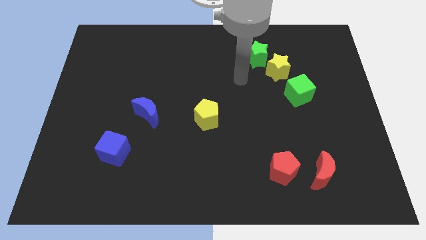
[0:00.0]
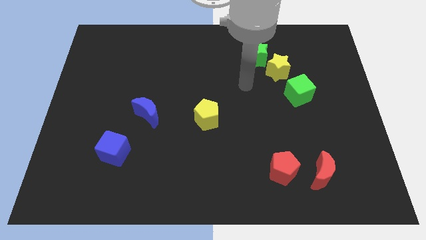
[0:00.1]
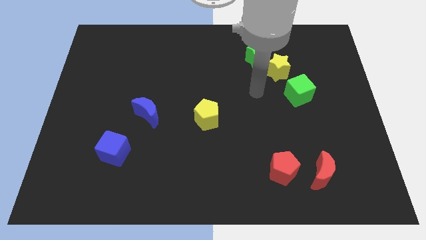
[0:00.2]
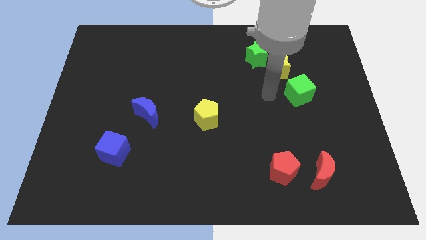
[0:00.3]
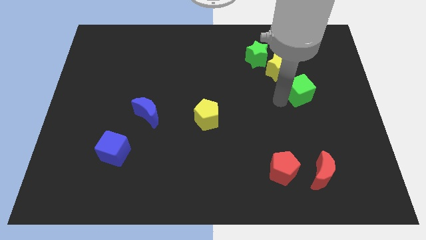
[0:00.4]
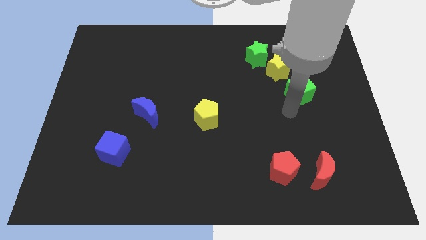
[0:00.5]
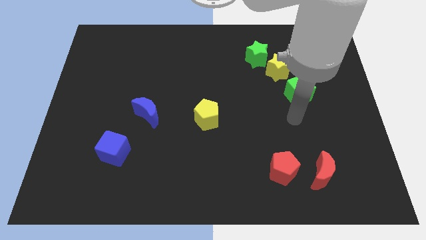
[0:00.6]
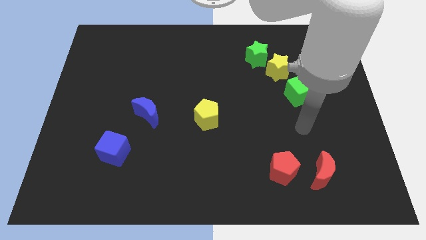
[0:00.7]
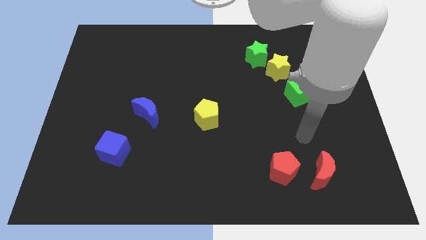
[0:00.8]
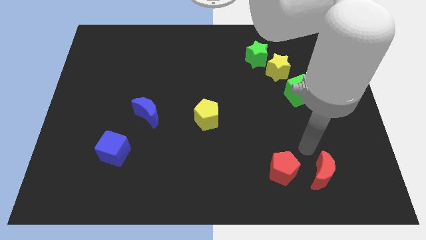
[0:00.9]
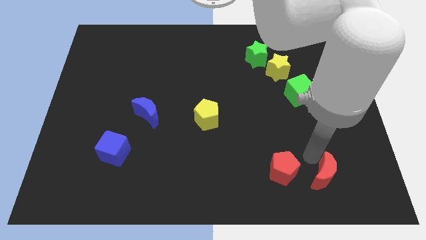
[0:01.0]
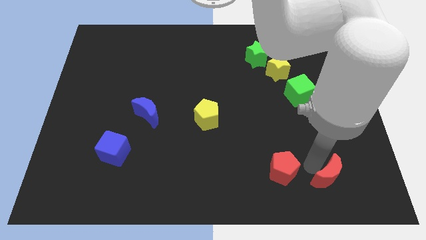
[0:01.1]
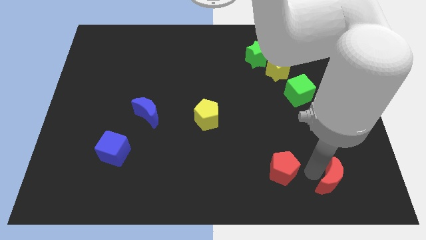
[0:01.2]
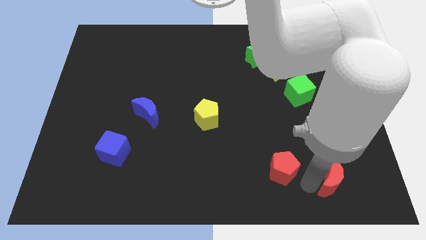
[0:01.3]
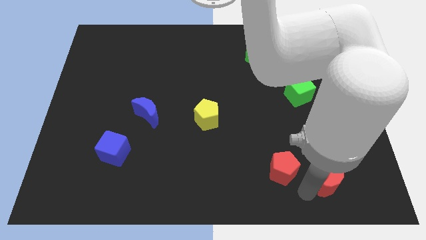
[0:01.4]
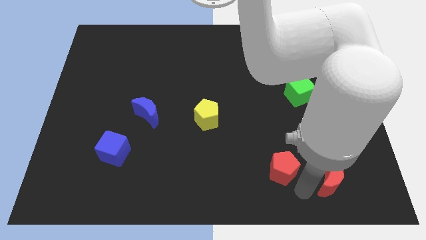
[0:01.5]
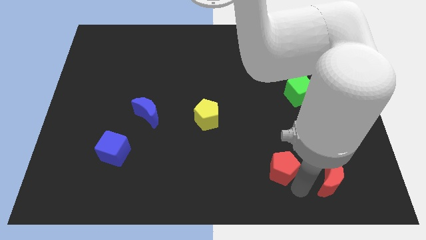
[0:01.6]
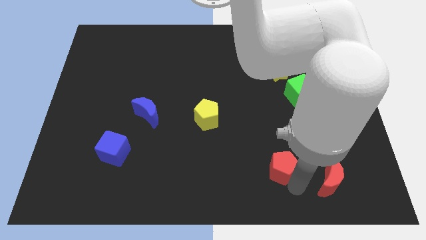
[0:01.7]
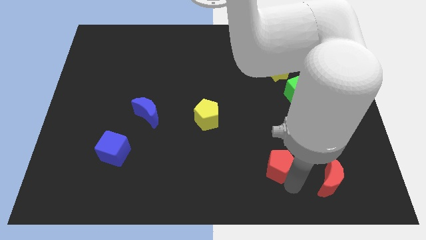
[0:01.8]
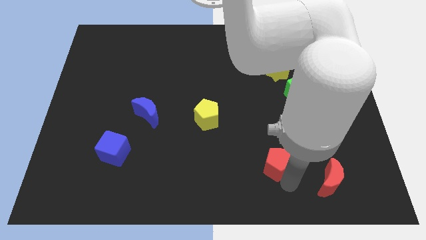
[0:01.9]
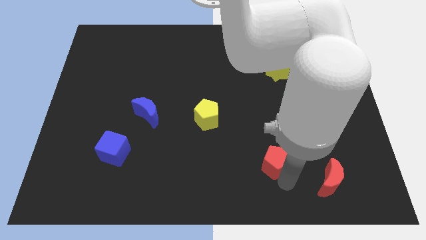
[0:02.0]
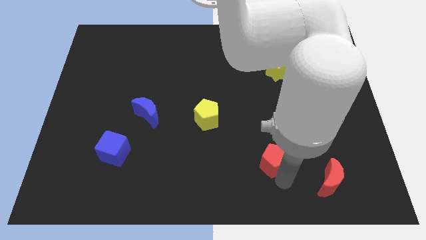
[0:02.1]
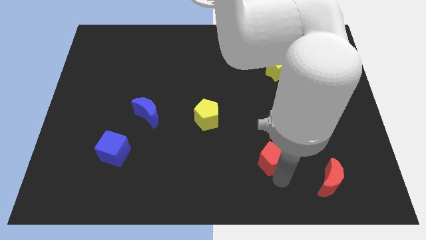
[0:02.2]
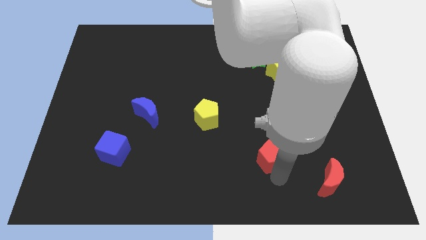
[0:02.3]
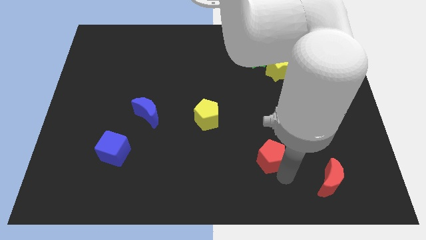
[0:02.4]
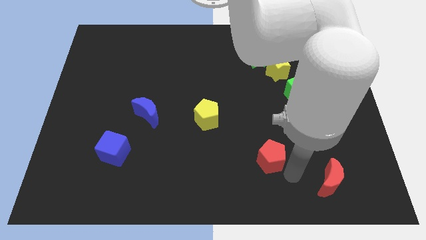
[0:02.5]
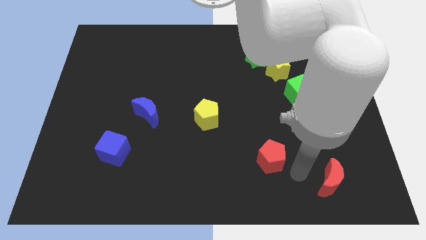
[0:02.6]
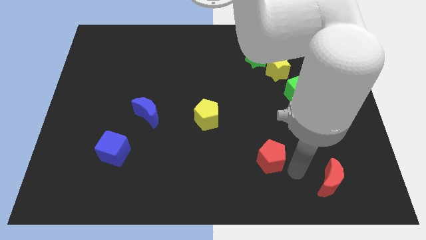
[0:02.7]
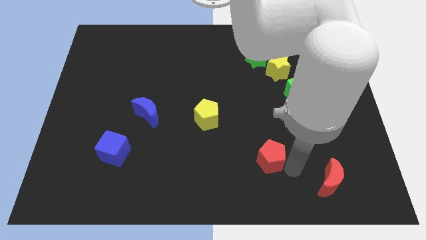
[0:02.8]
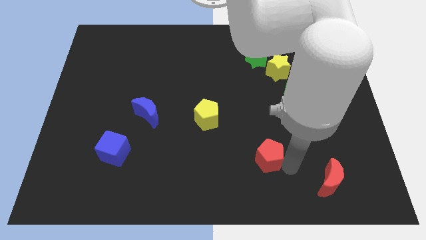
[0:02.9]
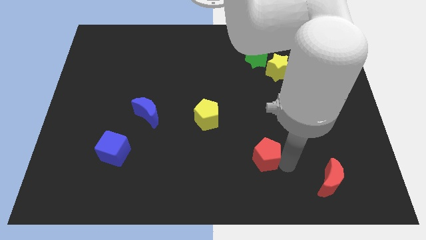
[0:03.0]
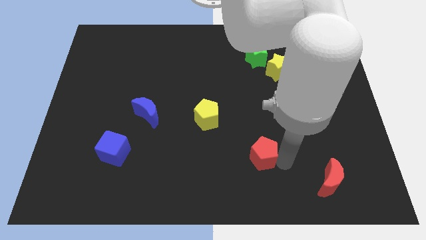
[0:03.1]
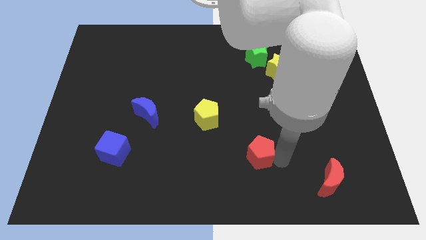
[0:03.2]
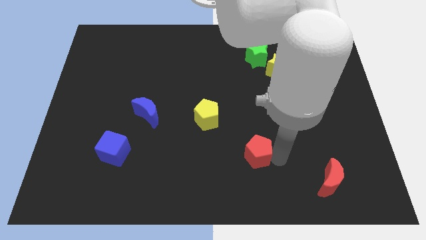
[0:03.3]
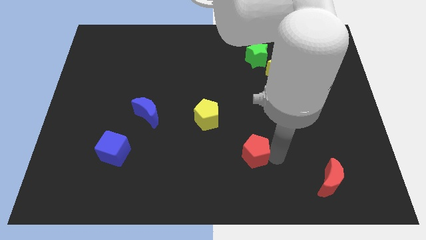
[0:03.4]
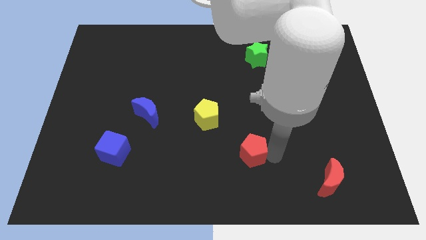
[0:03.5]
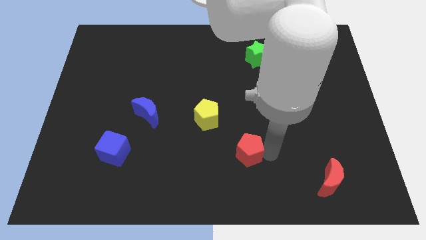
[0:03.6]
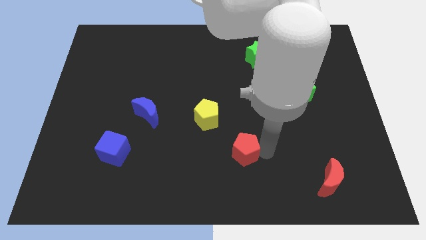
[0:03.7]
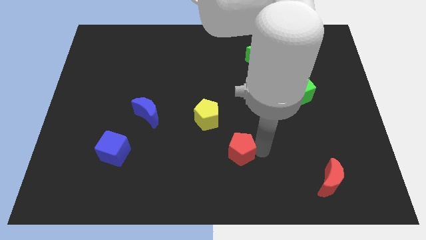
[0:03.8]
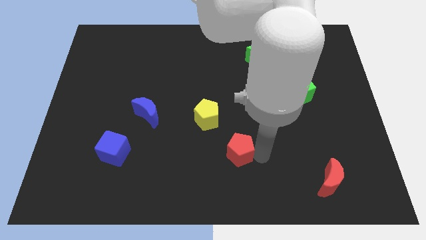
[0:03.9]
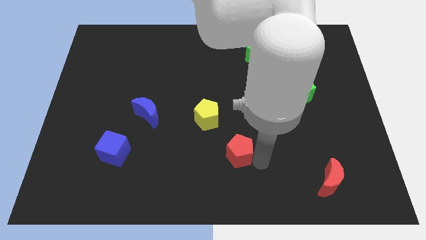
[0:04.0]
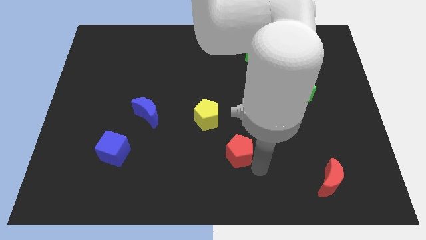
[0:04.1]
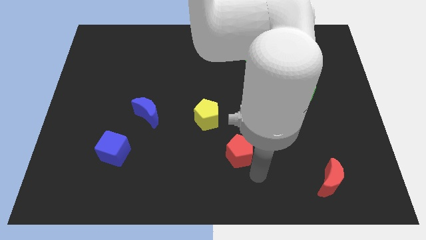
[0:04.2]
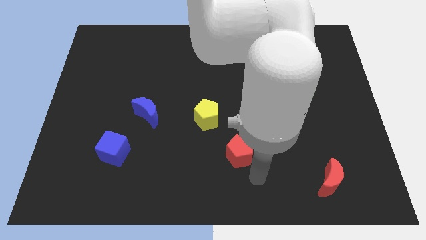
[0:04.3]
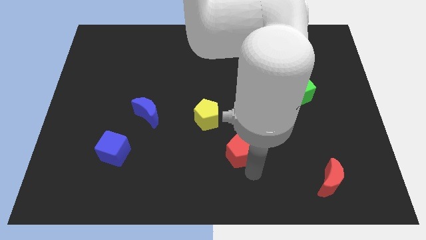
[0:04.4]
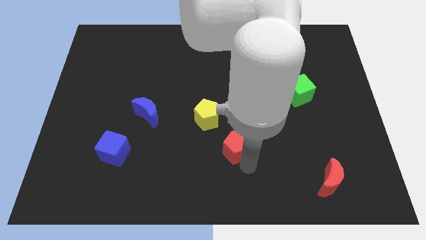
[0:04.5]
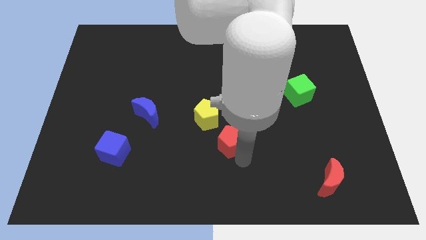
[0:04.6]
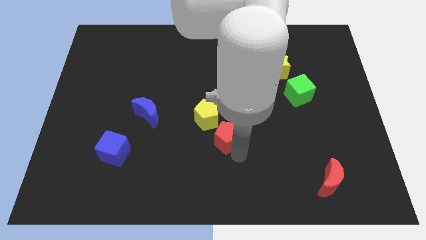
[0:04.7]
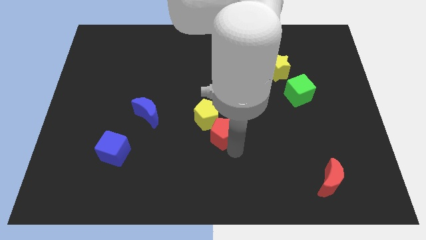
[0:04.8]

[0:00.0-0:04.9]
put the red pentagon close to the yellow pentagon

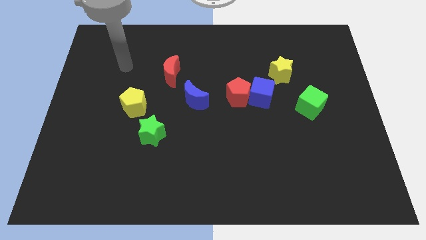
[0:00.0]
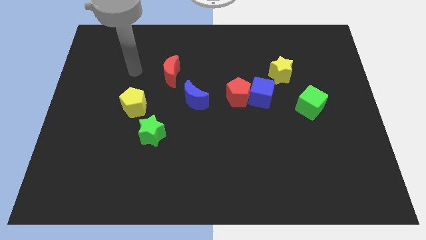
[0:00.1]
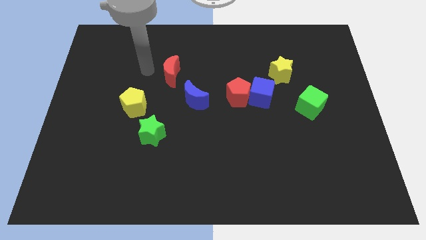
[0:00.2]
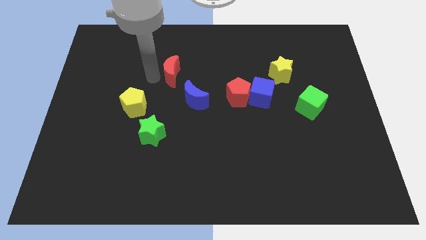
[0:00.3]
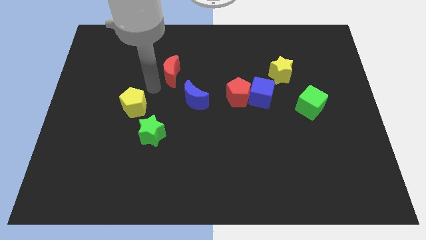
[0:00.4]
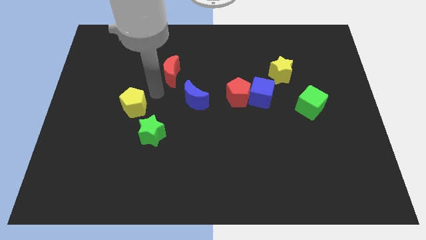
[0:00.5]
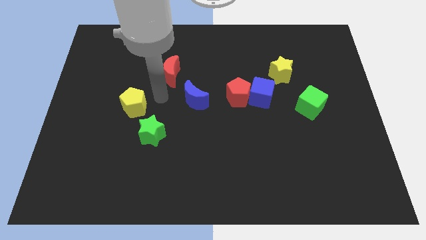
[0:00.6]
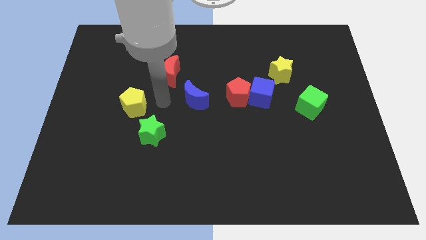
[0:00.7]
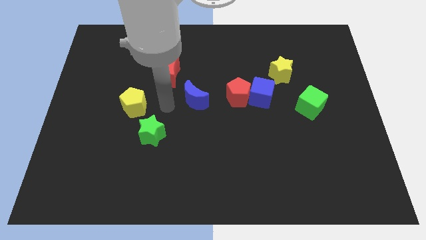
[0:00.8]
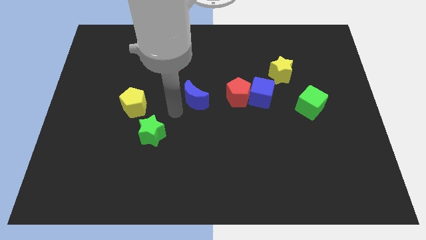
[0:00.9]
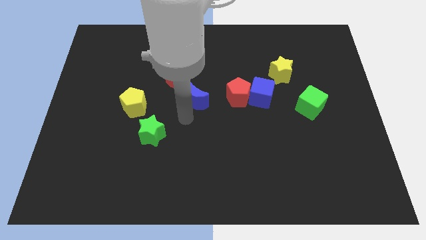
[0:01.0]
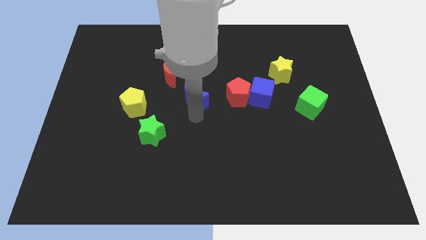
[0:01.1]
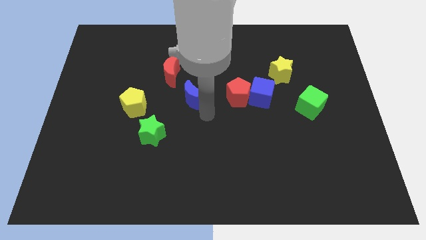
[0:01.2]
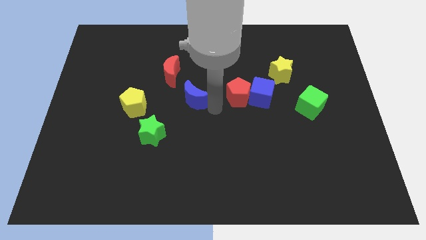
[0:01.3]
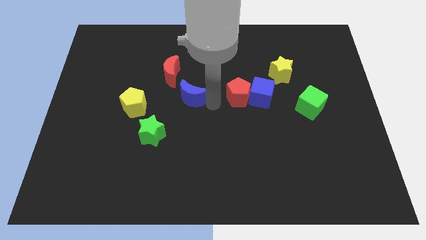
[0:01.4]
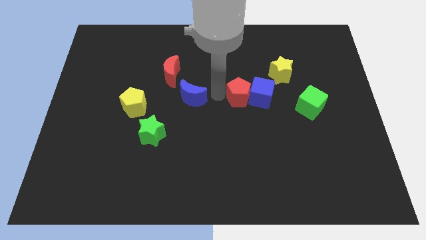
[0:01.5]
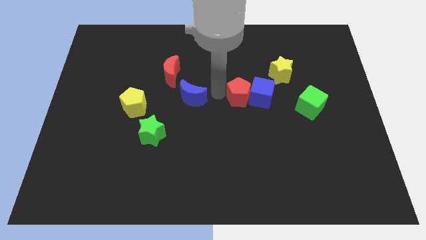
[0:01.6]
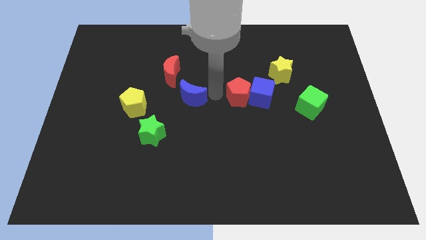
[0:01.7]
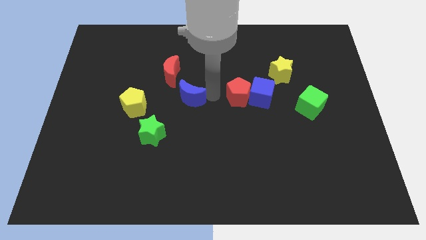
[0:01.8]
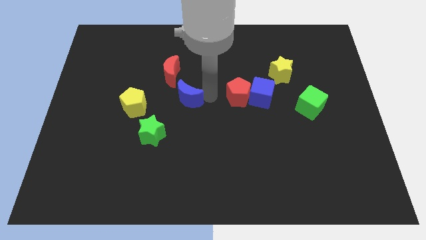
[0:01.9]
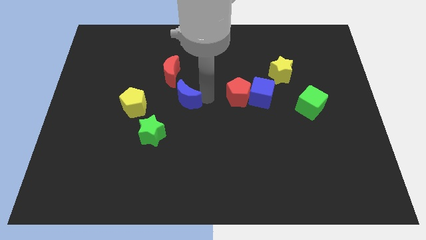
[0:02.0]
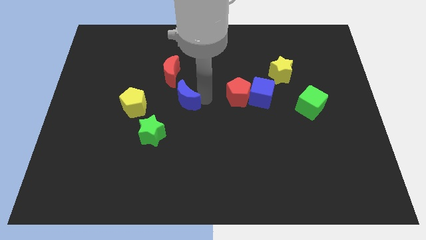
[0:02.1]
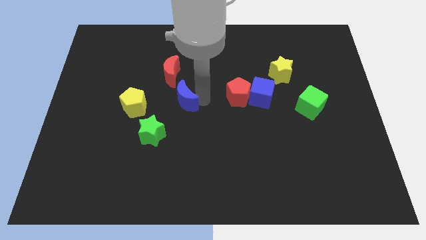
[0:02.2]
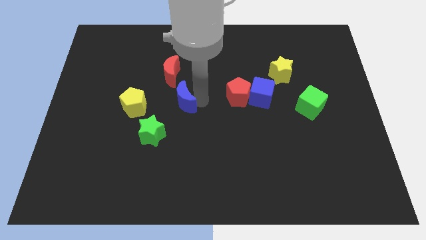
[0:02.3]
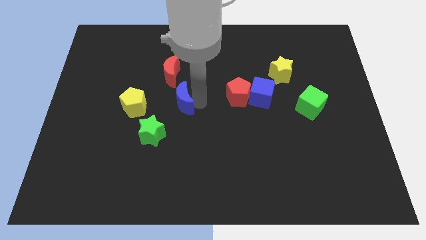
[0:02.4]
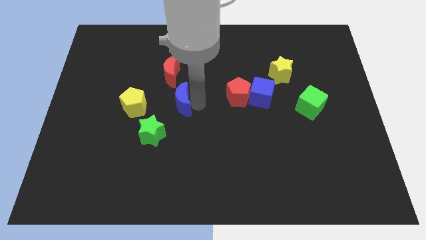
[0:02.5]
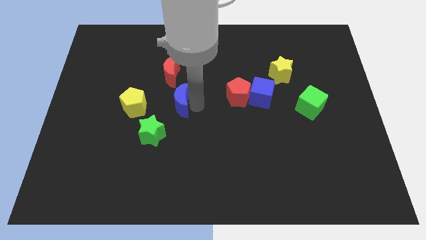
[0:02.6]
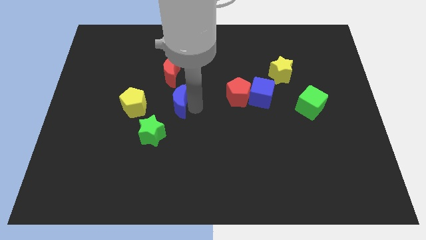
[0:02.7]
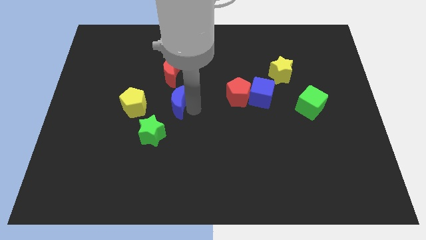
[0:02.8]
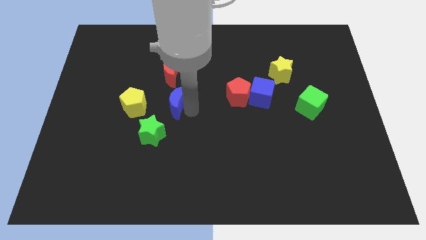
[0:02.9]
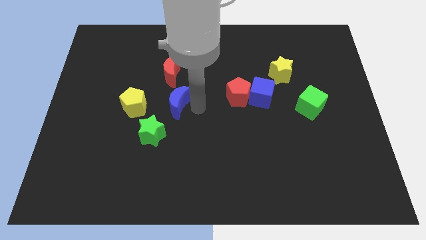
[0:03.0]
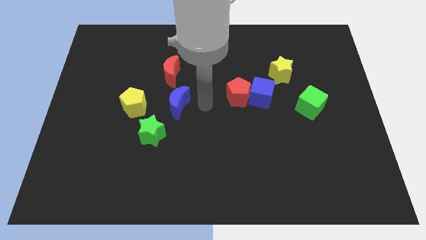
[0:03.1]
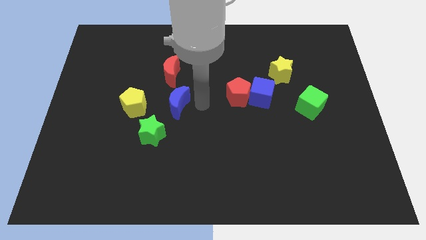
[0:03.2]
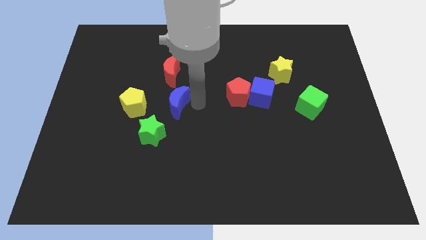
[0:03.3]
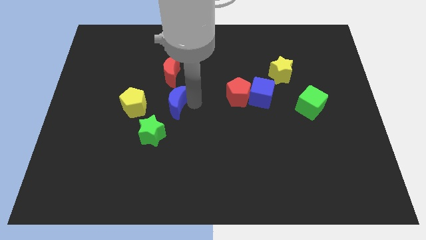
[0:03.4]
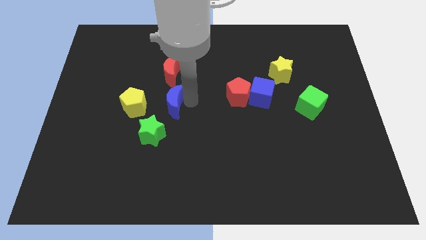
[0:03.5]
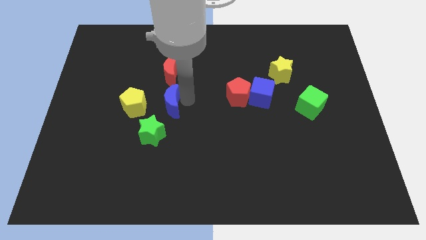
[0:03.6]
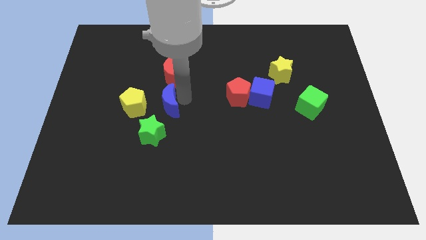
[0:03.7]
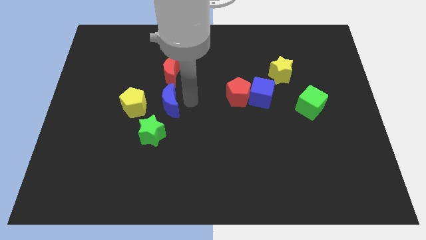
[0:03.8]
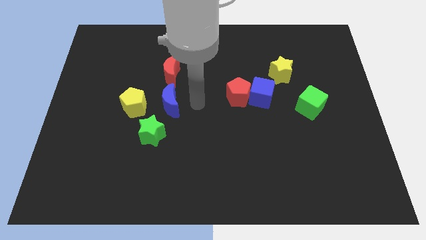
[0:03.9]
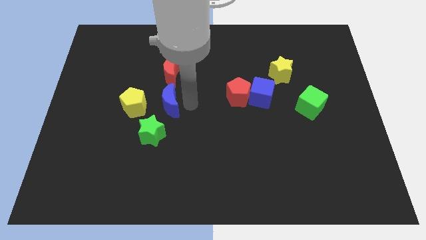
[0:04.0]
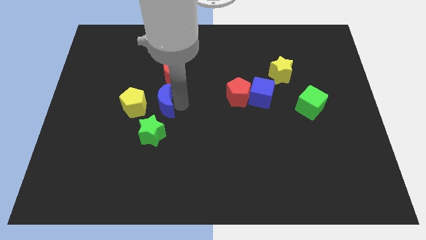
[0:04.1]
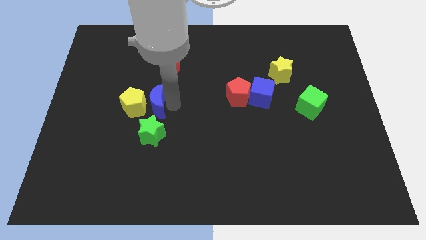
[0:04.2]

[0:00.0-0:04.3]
put the blue moon next to the yellow pentagon
